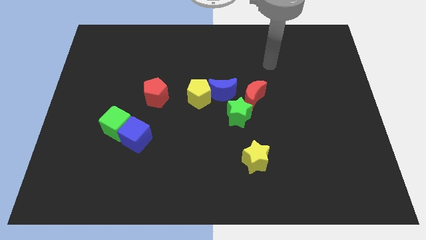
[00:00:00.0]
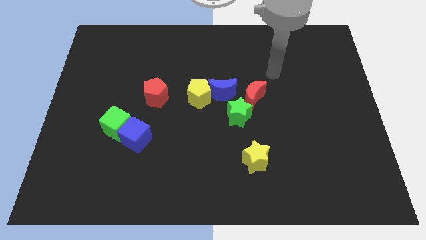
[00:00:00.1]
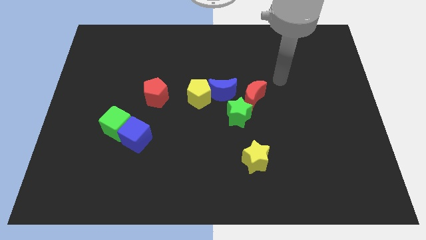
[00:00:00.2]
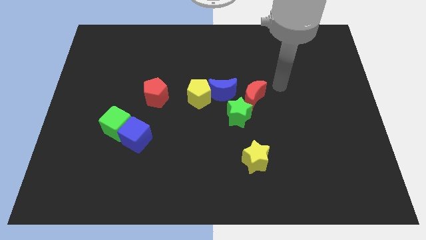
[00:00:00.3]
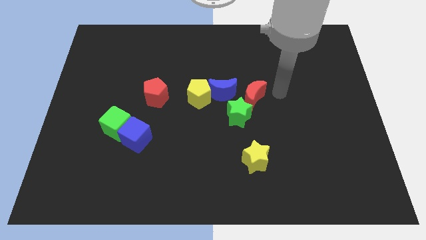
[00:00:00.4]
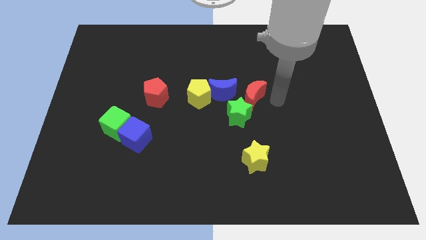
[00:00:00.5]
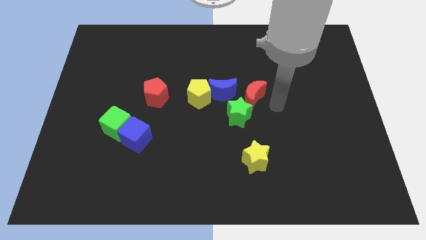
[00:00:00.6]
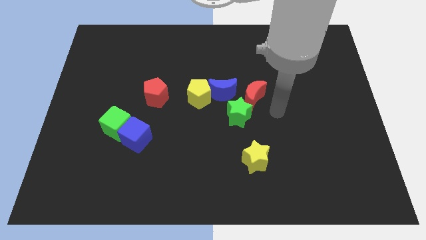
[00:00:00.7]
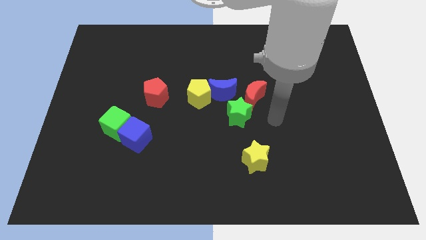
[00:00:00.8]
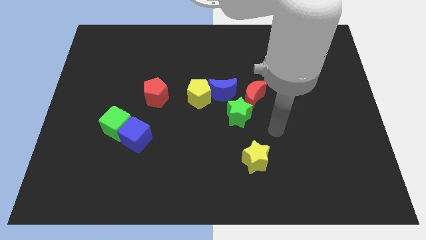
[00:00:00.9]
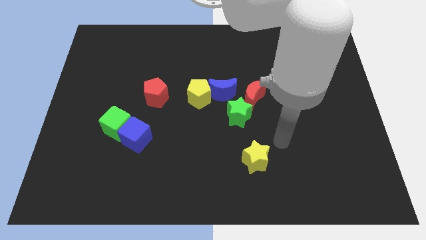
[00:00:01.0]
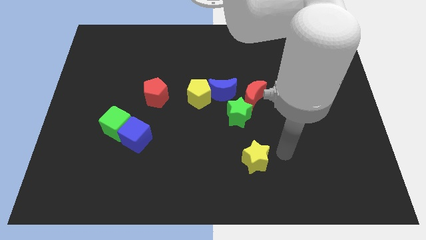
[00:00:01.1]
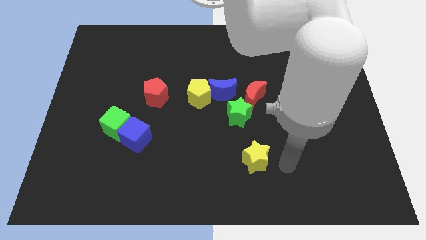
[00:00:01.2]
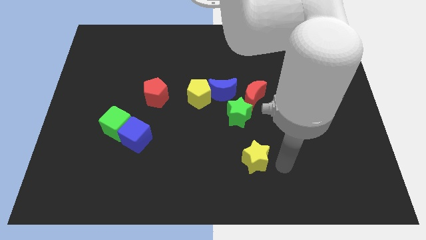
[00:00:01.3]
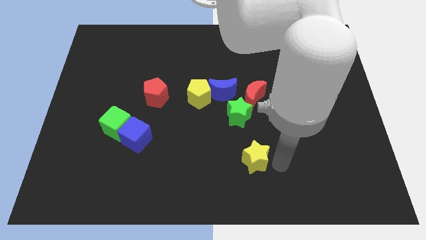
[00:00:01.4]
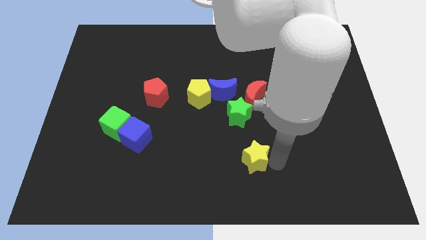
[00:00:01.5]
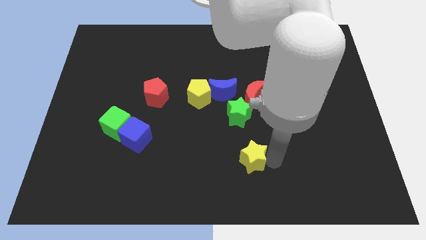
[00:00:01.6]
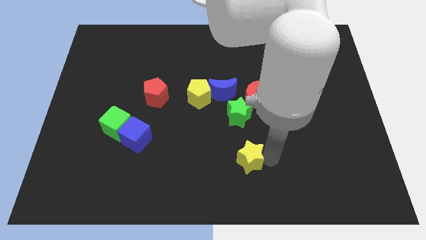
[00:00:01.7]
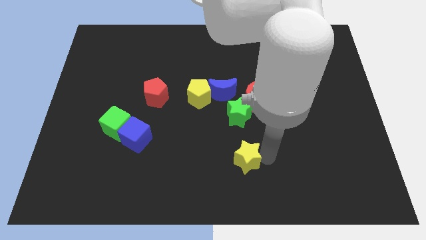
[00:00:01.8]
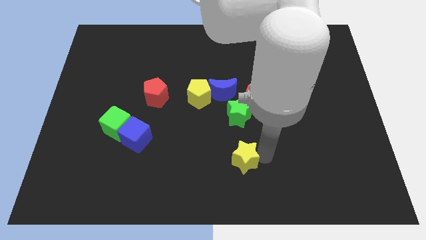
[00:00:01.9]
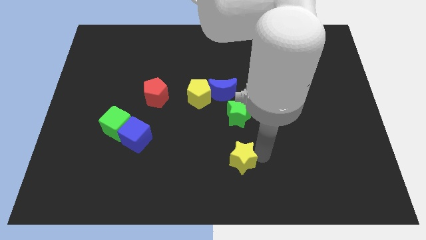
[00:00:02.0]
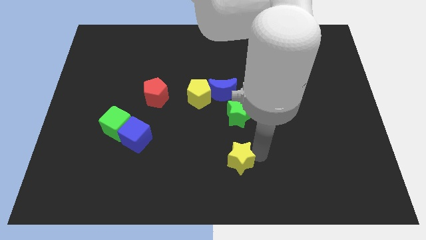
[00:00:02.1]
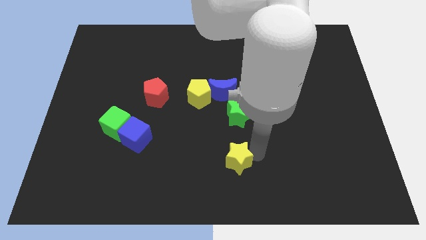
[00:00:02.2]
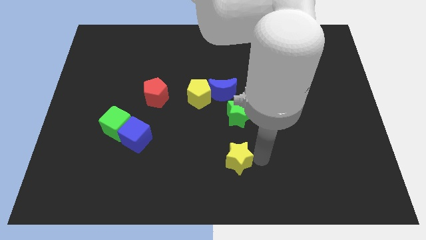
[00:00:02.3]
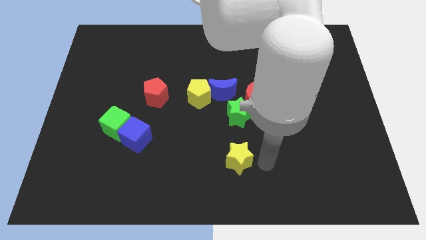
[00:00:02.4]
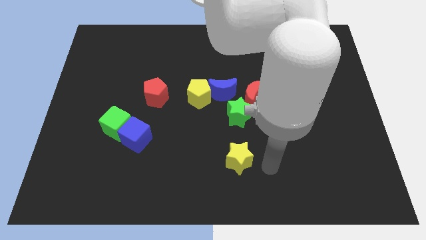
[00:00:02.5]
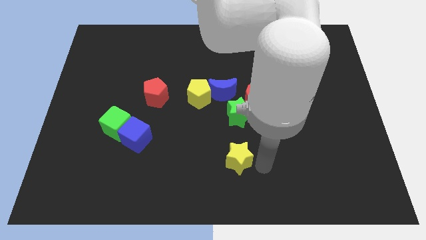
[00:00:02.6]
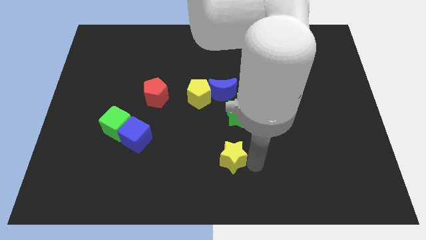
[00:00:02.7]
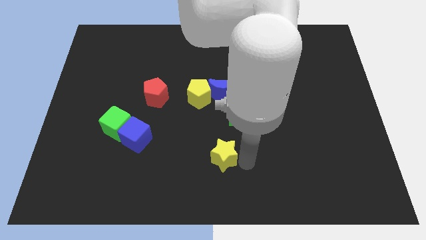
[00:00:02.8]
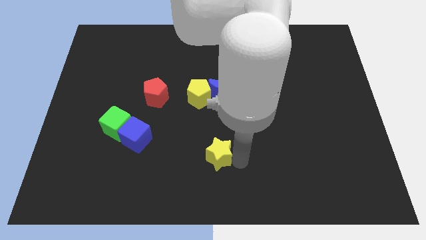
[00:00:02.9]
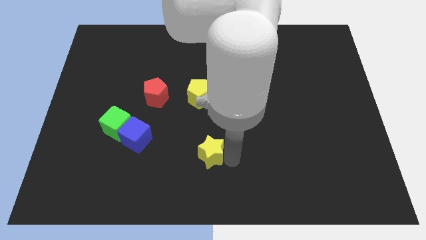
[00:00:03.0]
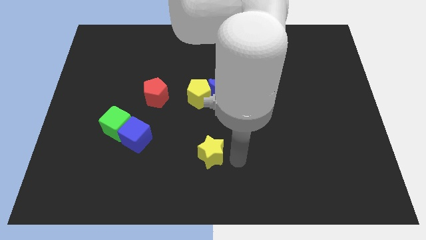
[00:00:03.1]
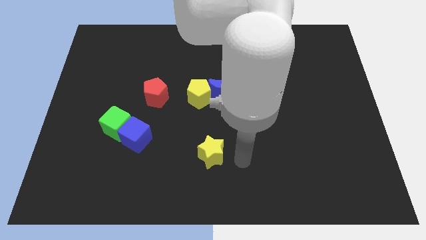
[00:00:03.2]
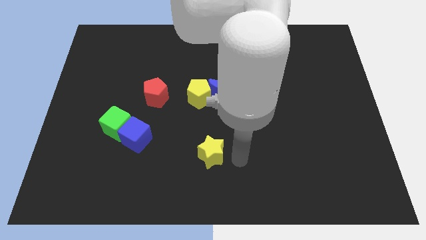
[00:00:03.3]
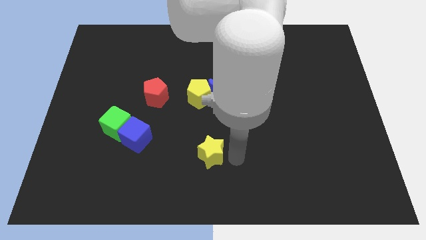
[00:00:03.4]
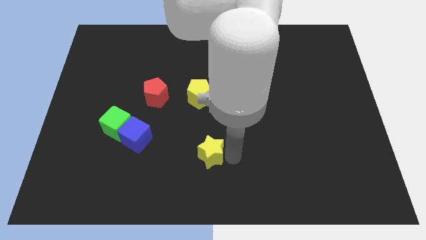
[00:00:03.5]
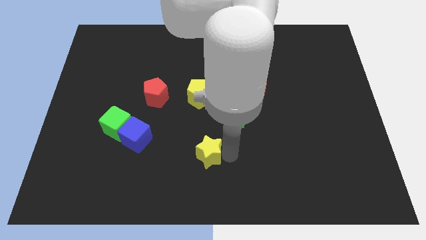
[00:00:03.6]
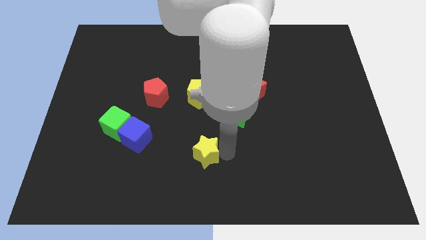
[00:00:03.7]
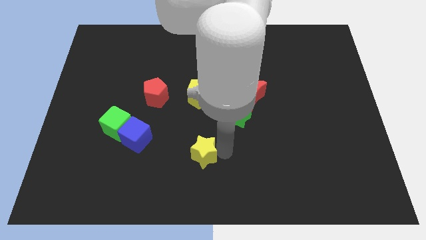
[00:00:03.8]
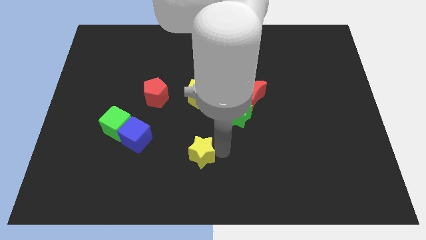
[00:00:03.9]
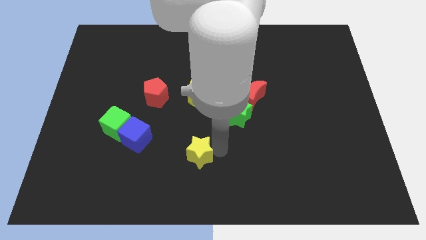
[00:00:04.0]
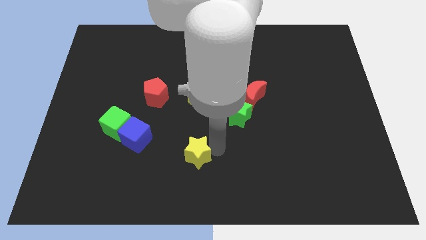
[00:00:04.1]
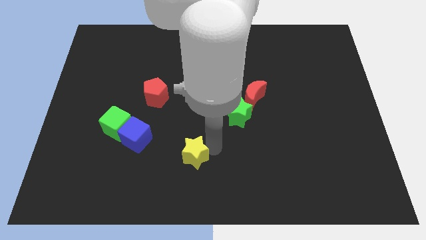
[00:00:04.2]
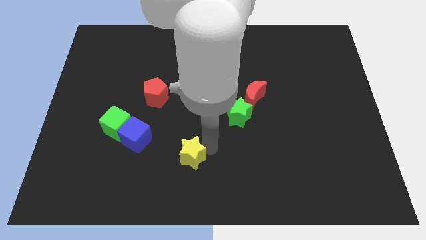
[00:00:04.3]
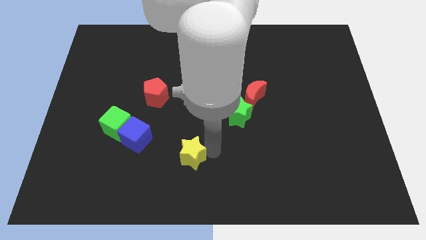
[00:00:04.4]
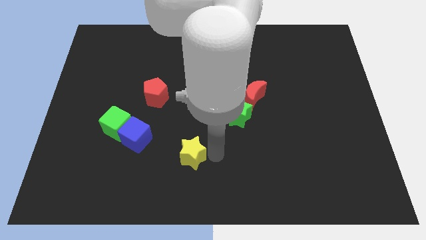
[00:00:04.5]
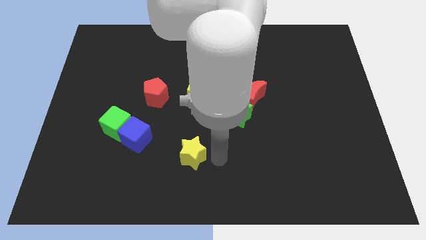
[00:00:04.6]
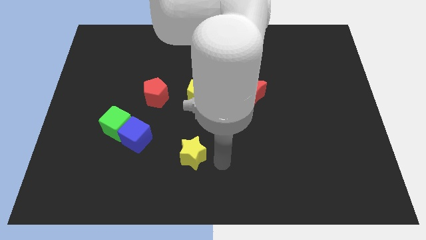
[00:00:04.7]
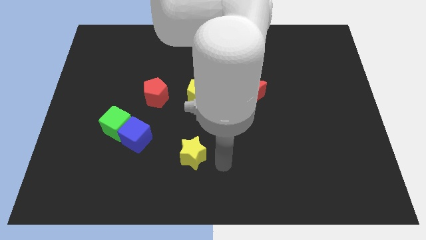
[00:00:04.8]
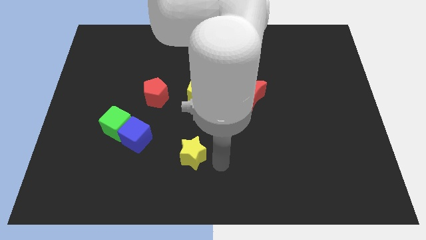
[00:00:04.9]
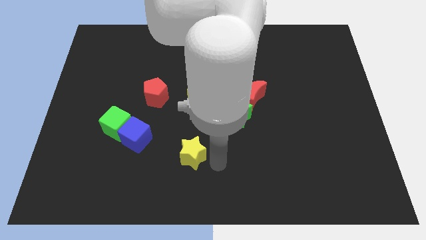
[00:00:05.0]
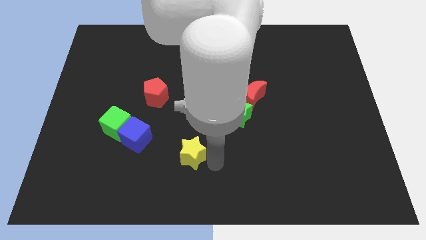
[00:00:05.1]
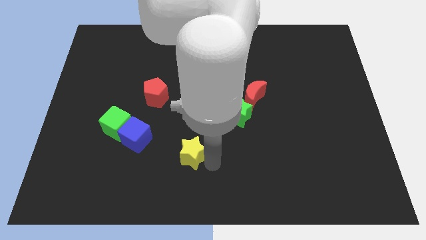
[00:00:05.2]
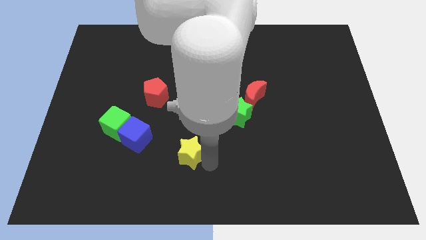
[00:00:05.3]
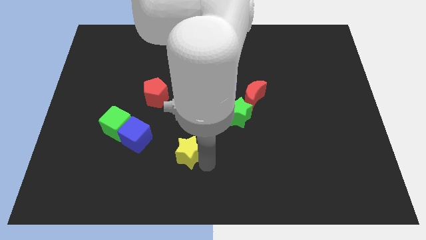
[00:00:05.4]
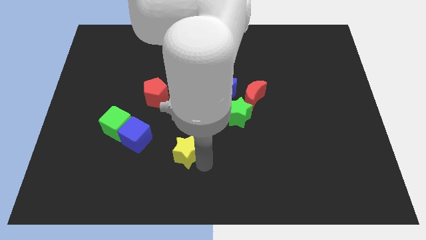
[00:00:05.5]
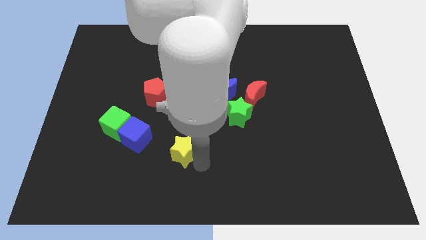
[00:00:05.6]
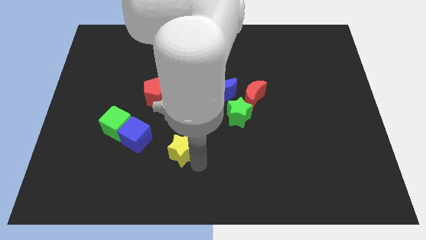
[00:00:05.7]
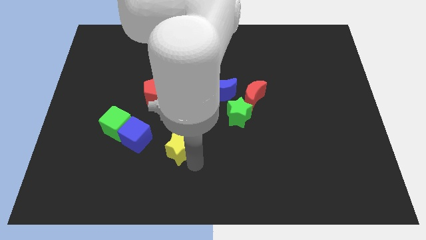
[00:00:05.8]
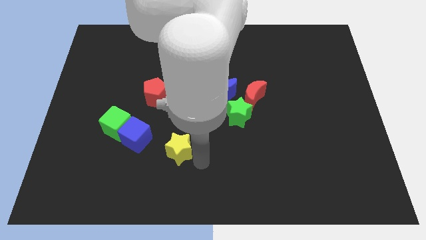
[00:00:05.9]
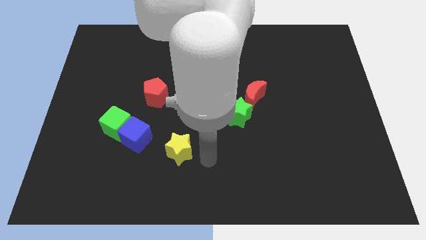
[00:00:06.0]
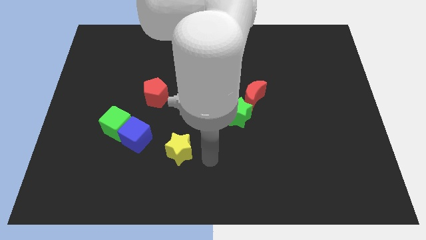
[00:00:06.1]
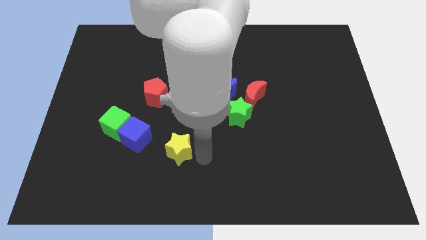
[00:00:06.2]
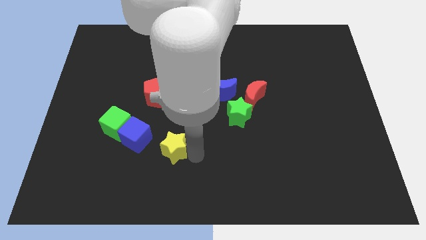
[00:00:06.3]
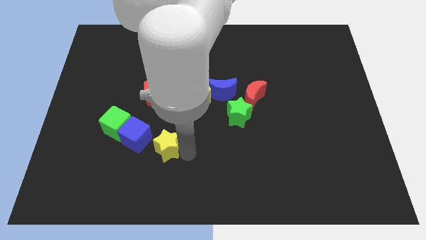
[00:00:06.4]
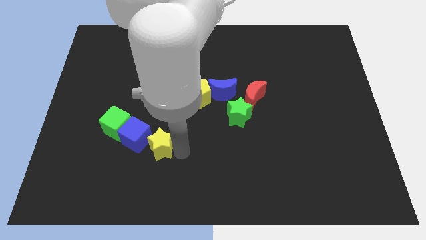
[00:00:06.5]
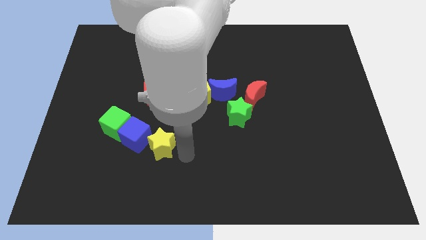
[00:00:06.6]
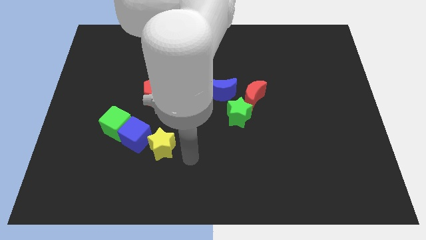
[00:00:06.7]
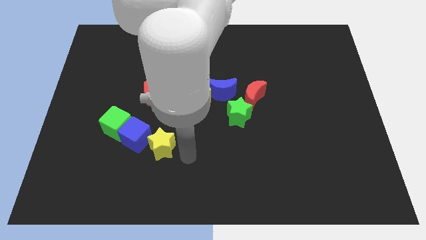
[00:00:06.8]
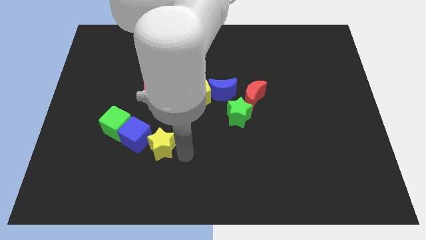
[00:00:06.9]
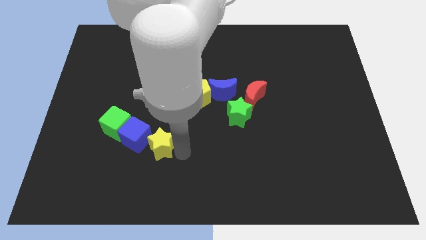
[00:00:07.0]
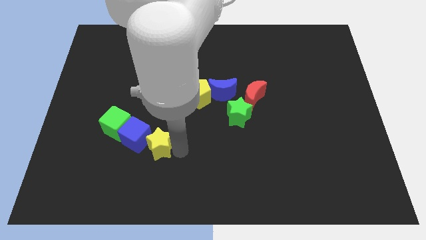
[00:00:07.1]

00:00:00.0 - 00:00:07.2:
push the yellow star towards the blue cube
